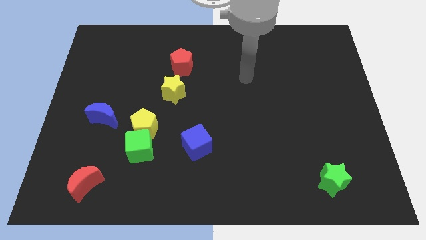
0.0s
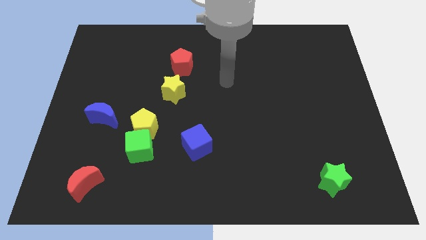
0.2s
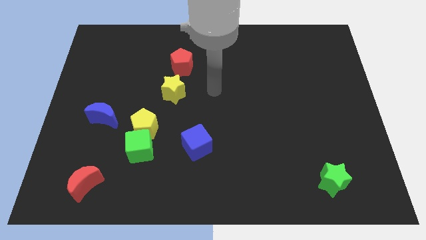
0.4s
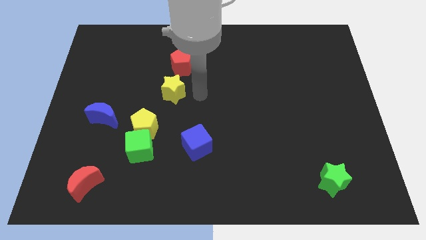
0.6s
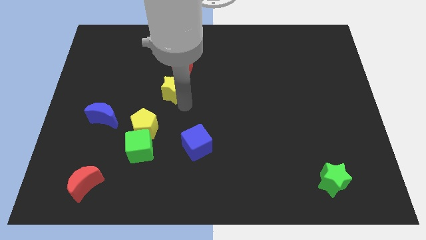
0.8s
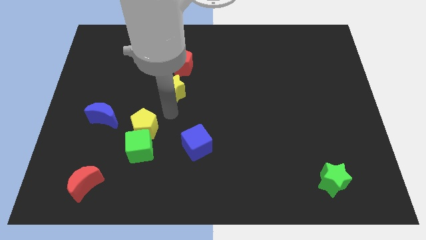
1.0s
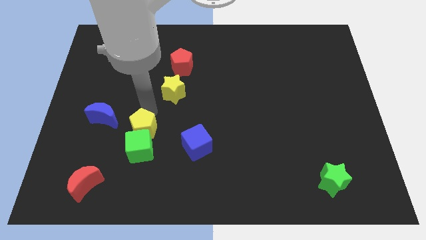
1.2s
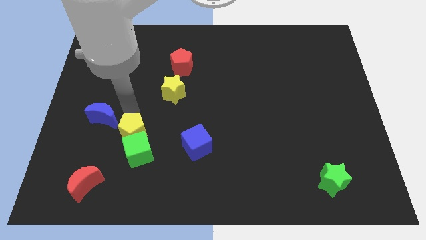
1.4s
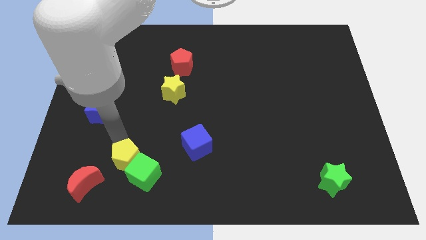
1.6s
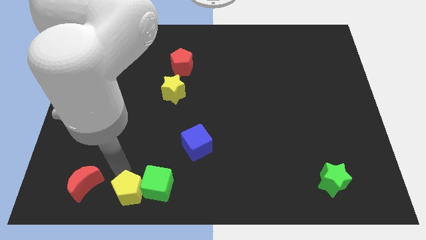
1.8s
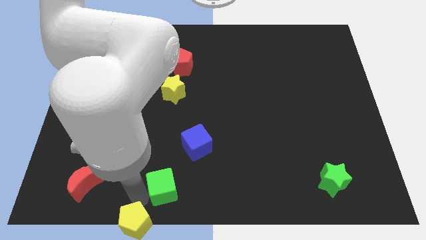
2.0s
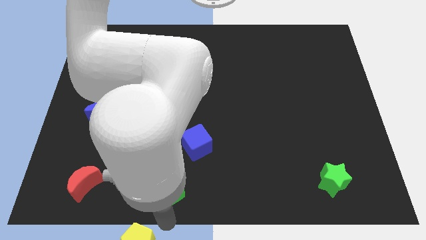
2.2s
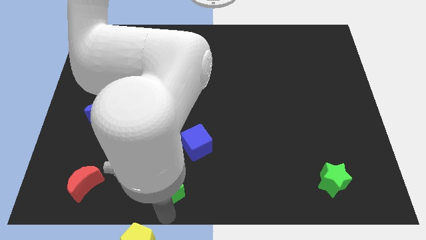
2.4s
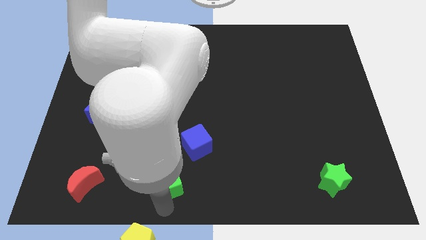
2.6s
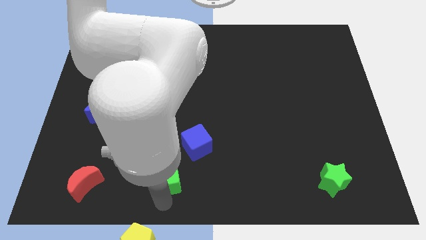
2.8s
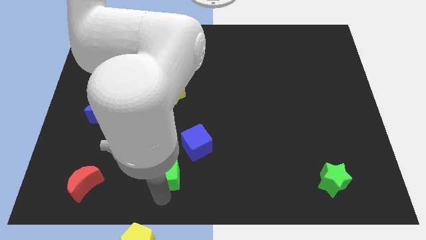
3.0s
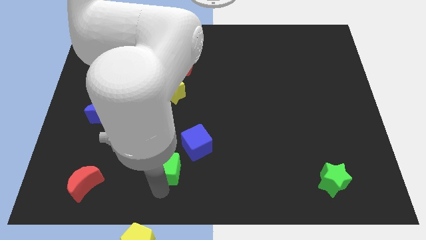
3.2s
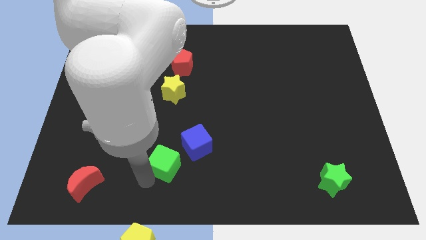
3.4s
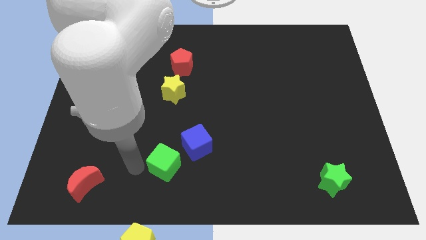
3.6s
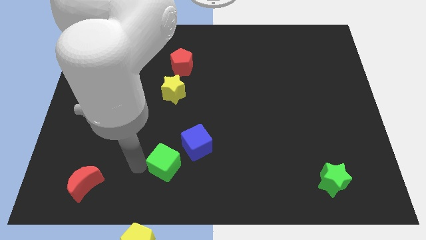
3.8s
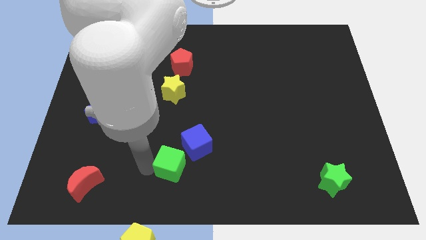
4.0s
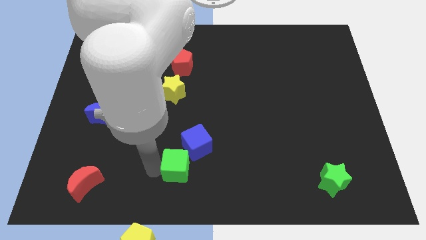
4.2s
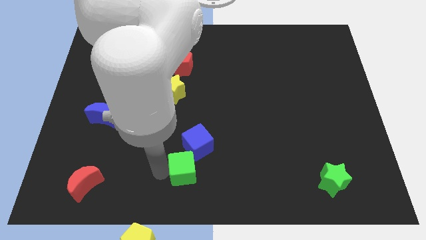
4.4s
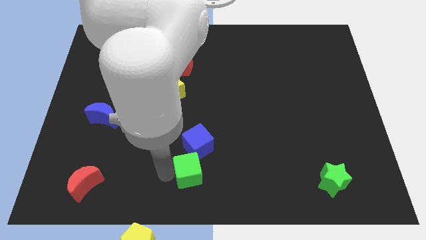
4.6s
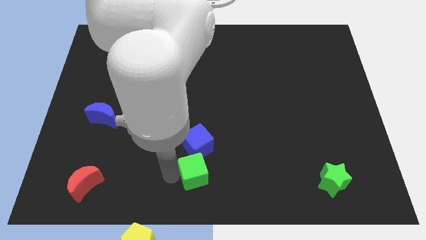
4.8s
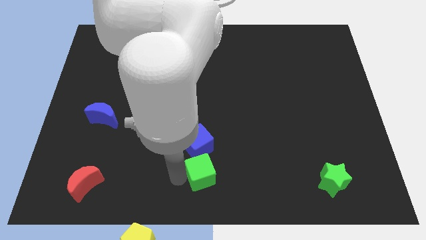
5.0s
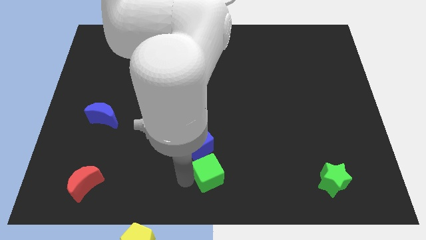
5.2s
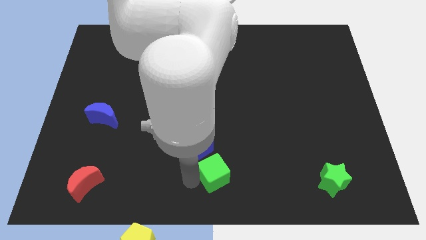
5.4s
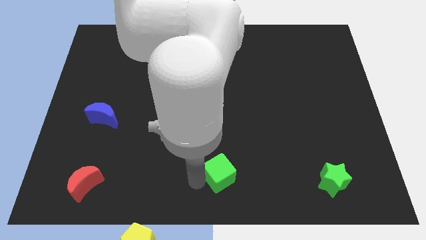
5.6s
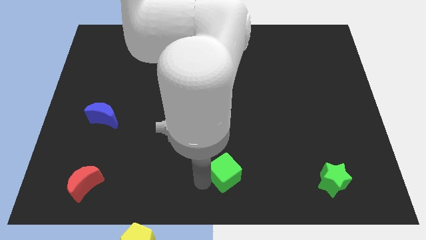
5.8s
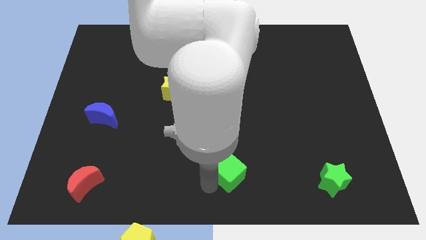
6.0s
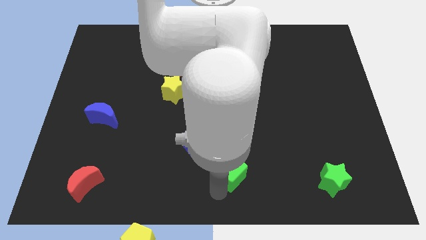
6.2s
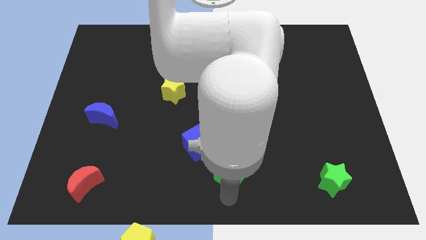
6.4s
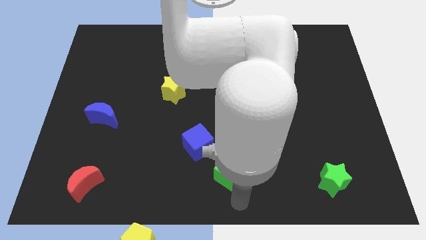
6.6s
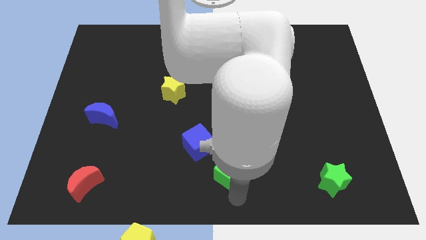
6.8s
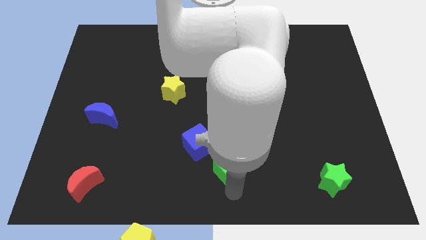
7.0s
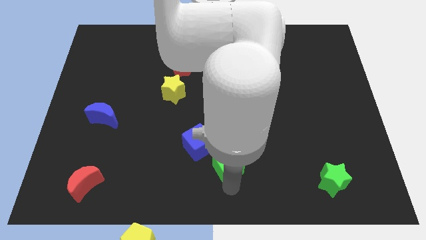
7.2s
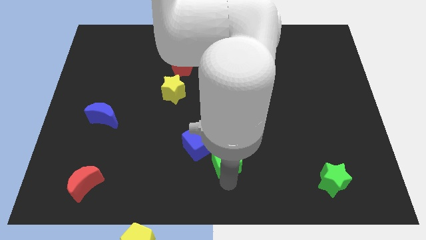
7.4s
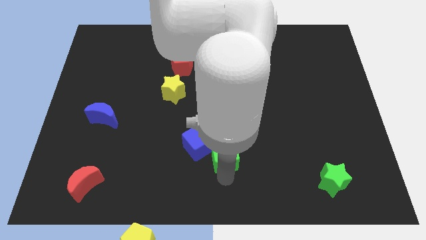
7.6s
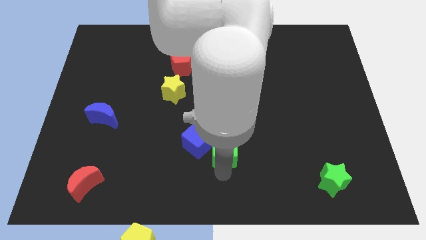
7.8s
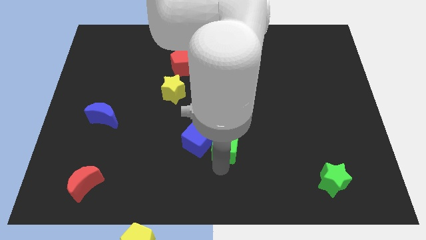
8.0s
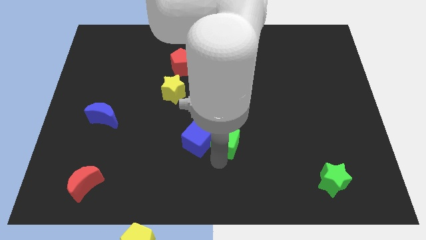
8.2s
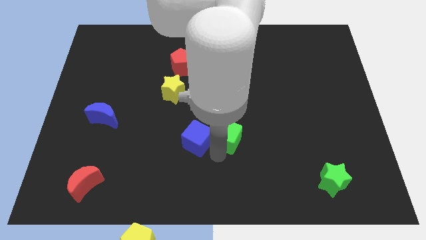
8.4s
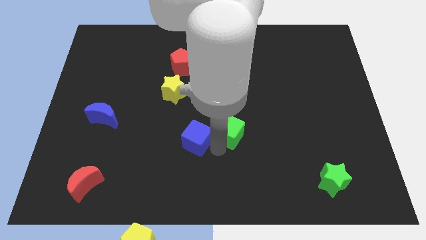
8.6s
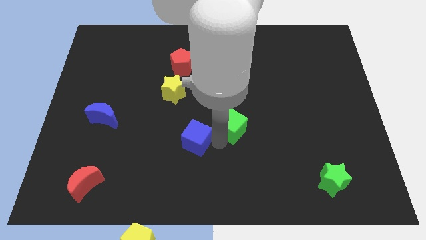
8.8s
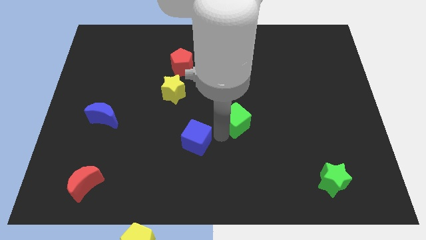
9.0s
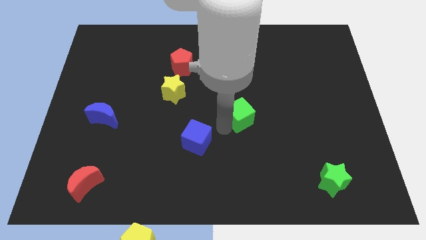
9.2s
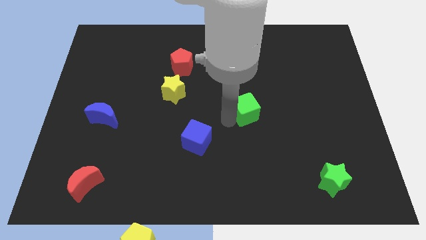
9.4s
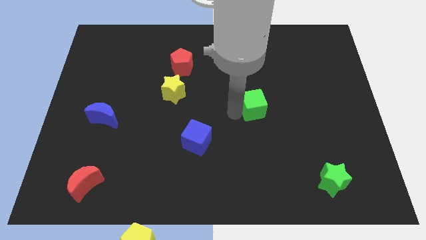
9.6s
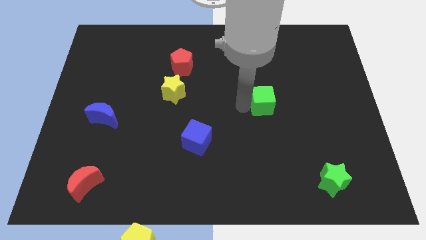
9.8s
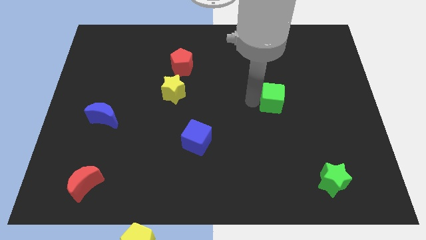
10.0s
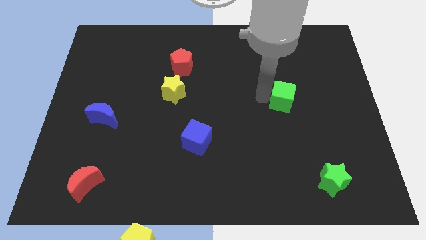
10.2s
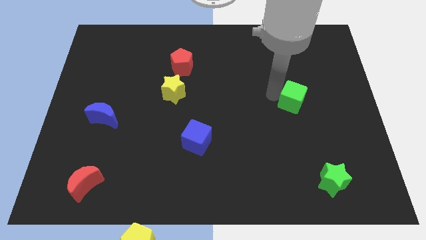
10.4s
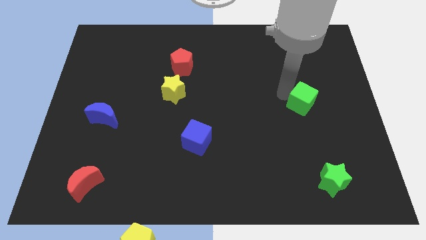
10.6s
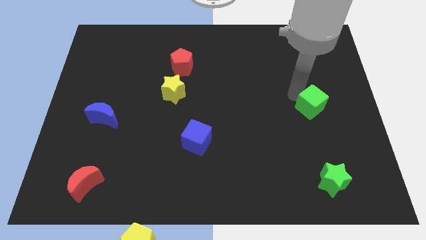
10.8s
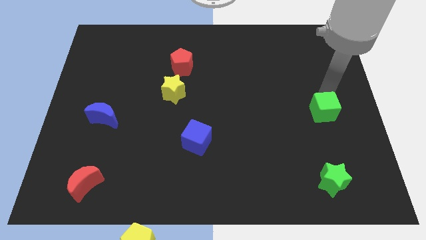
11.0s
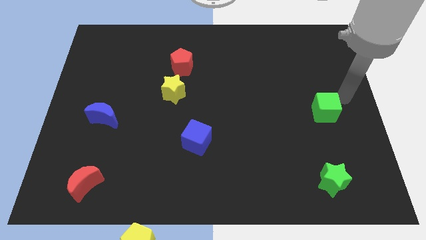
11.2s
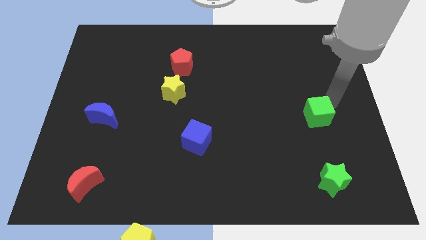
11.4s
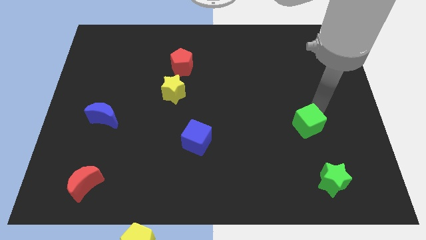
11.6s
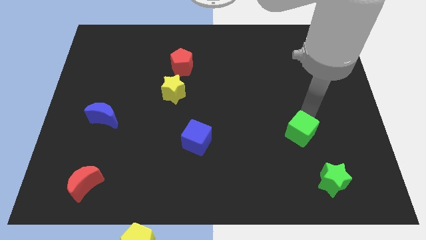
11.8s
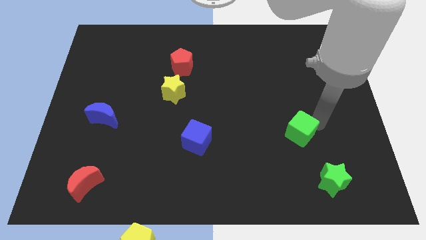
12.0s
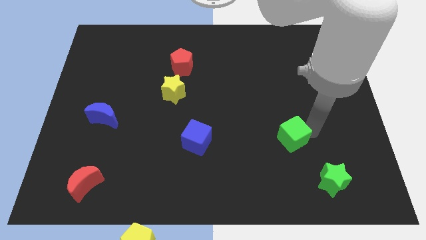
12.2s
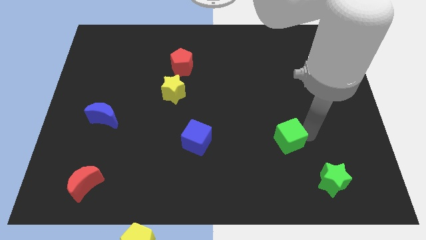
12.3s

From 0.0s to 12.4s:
put the green cube to the top left side of the green star

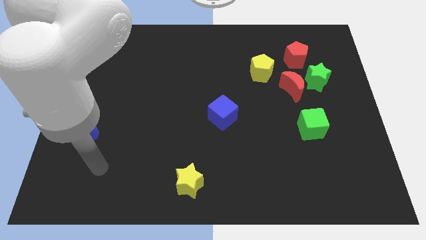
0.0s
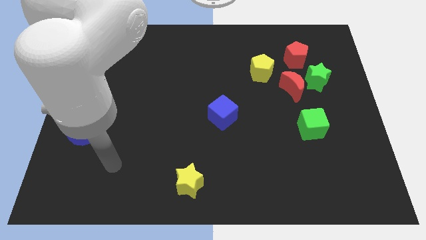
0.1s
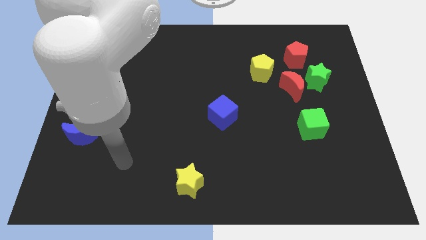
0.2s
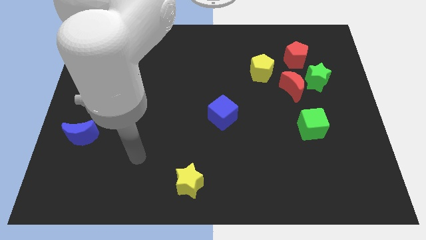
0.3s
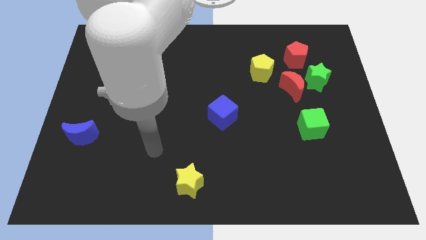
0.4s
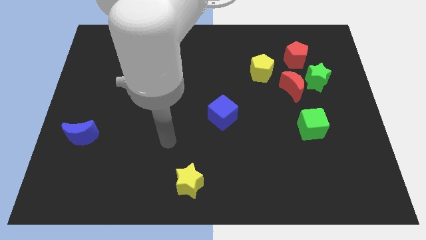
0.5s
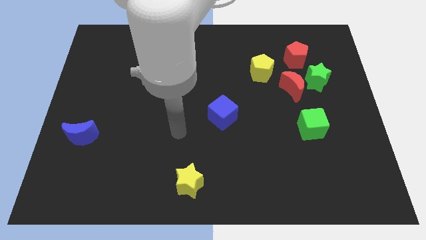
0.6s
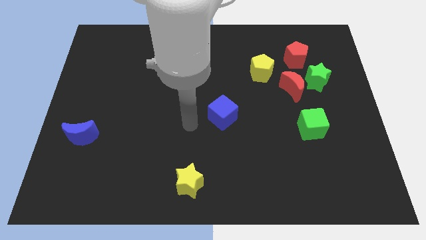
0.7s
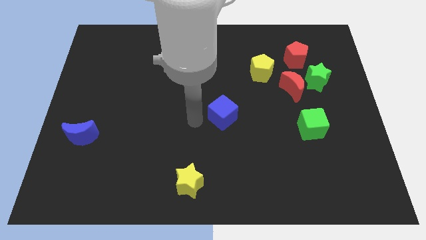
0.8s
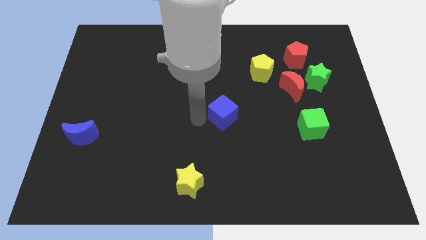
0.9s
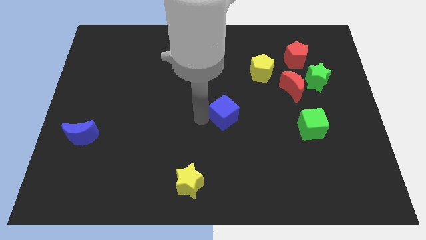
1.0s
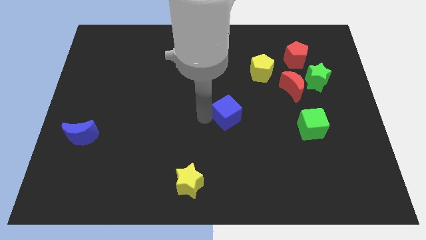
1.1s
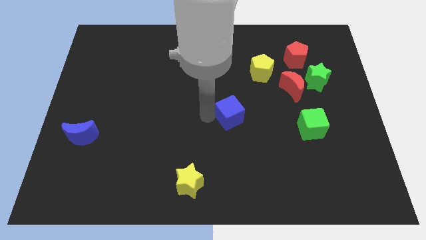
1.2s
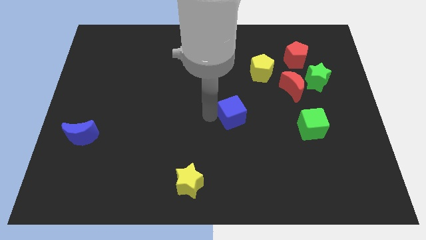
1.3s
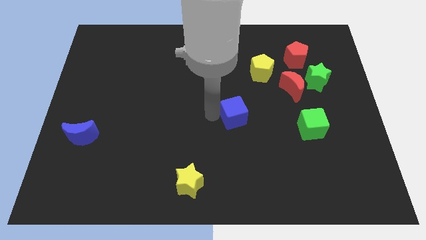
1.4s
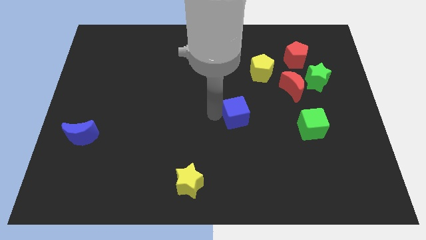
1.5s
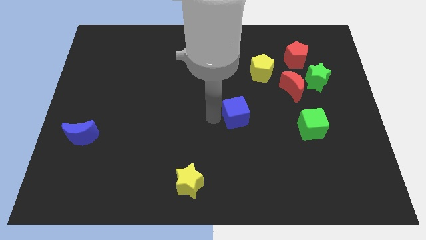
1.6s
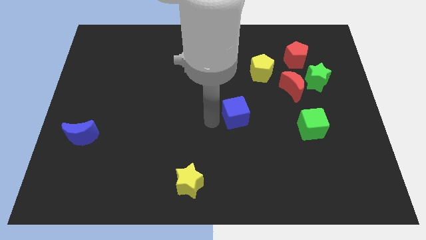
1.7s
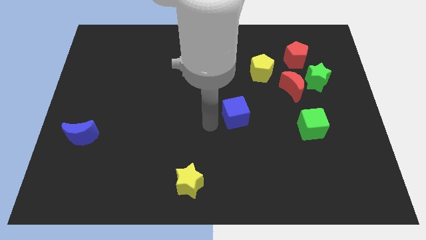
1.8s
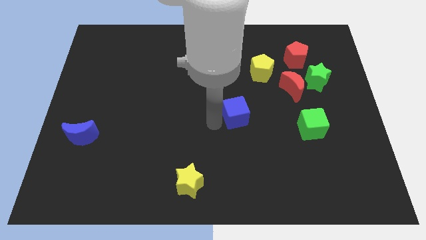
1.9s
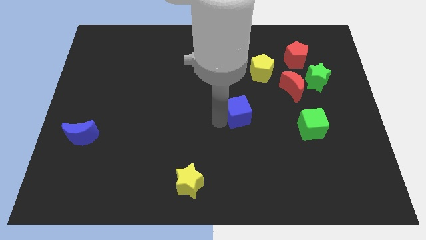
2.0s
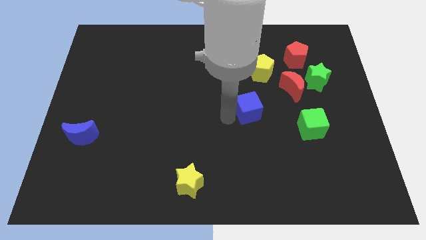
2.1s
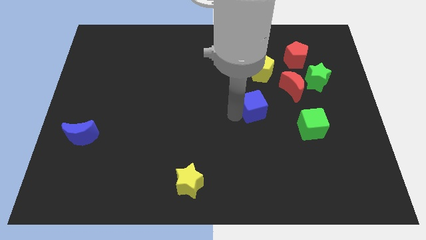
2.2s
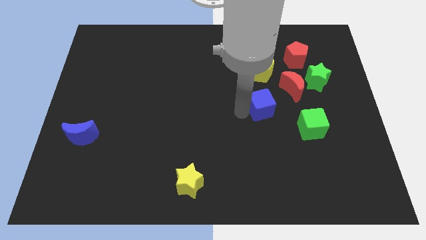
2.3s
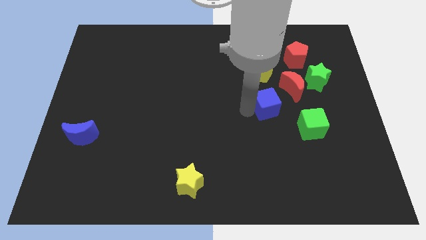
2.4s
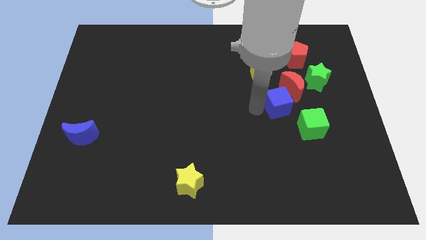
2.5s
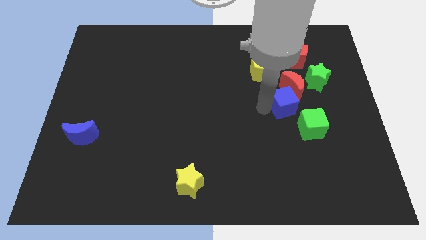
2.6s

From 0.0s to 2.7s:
slide the blue cube to the bottom left of the green star
